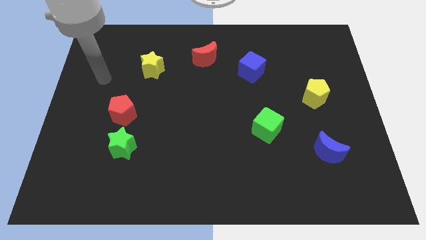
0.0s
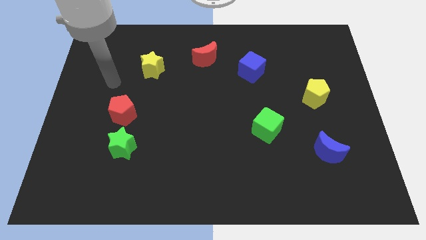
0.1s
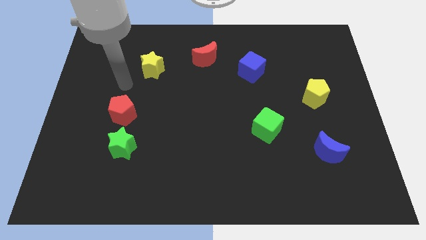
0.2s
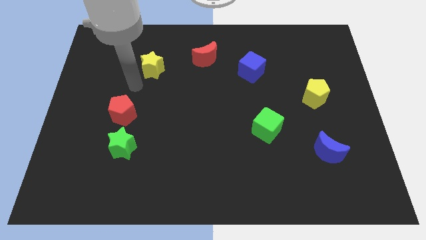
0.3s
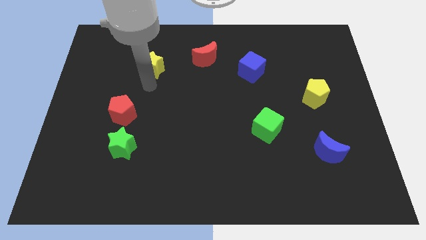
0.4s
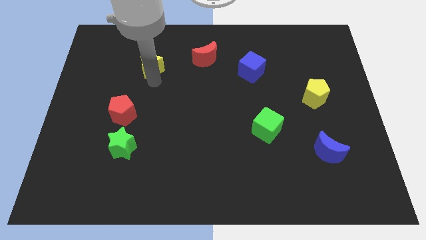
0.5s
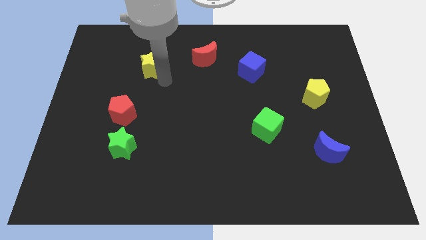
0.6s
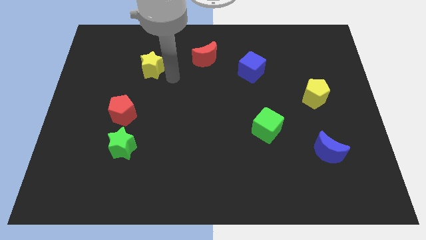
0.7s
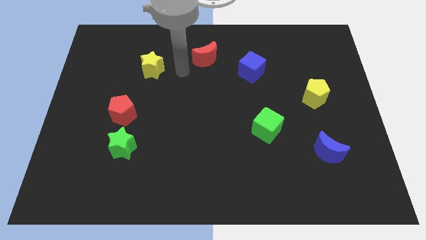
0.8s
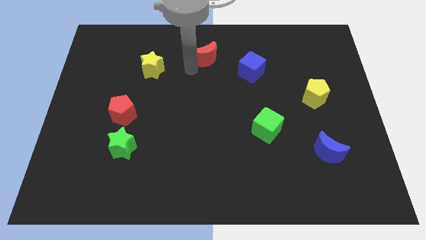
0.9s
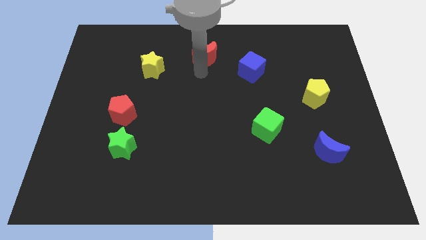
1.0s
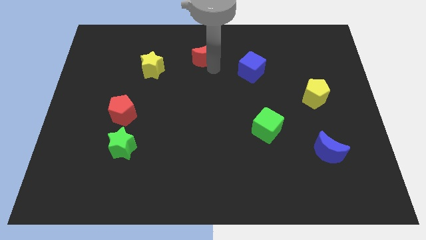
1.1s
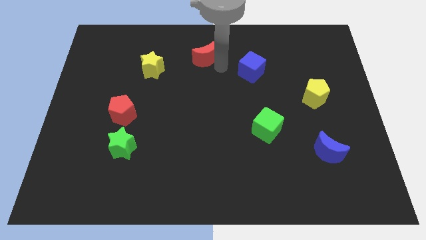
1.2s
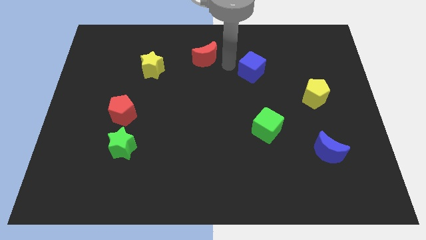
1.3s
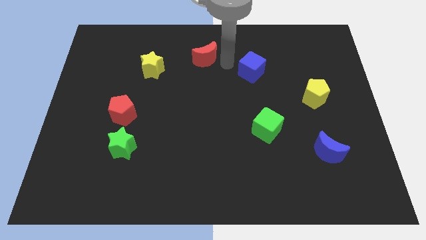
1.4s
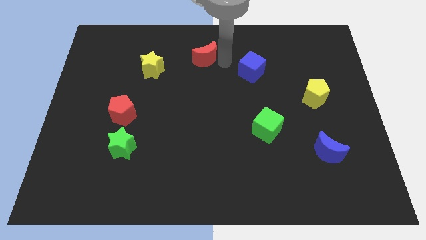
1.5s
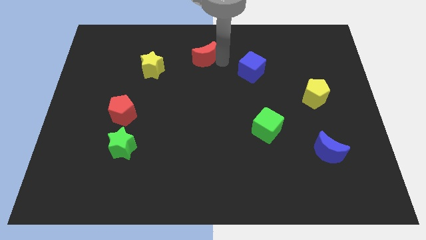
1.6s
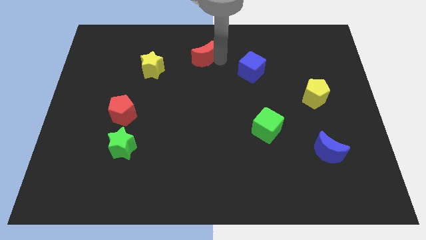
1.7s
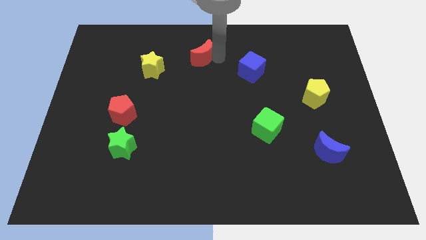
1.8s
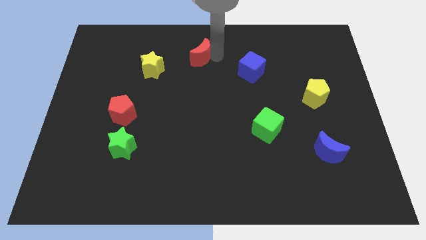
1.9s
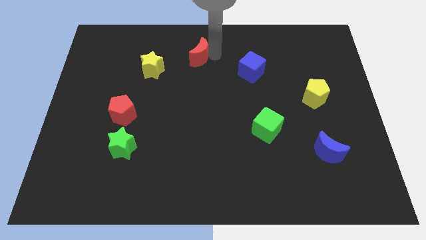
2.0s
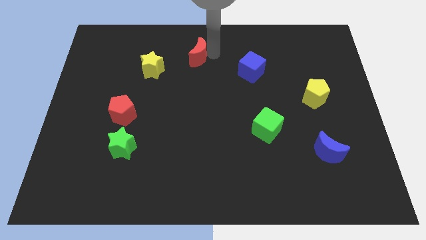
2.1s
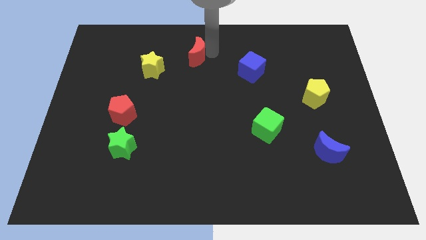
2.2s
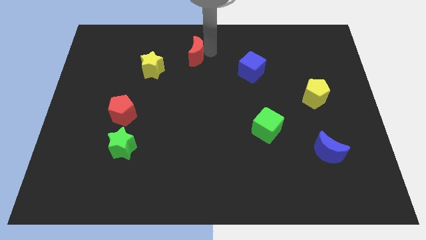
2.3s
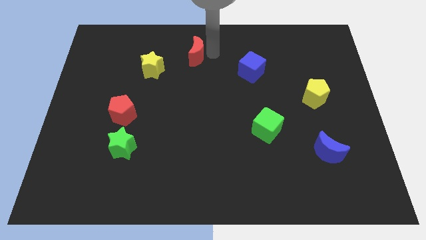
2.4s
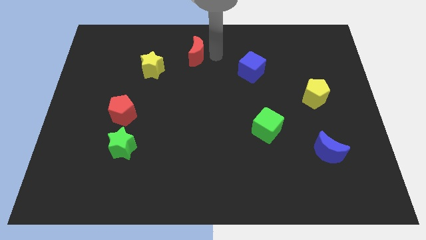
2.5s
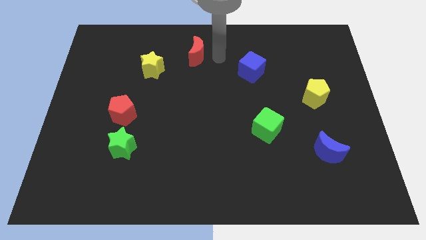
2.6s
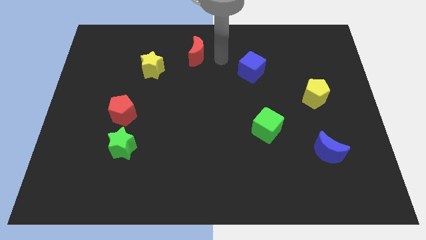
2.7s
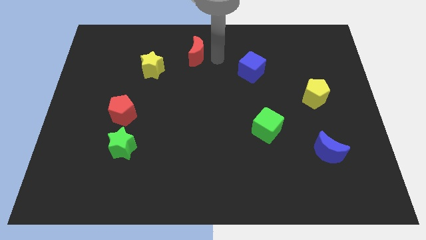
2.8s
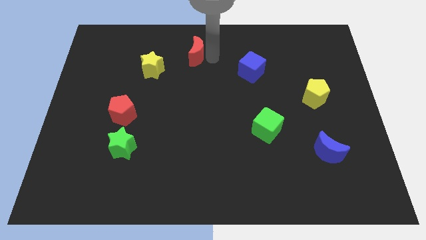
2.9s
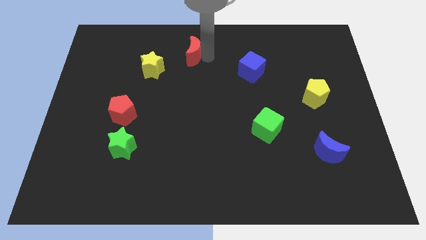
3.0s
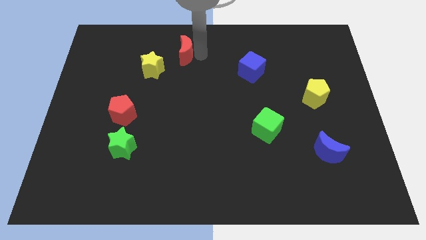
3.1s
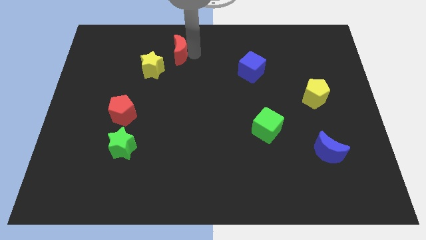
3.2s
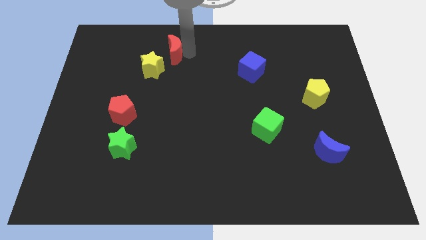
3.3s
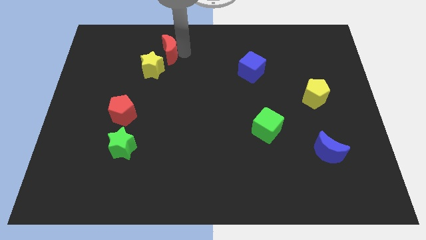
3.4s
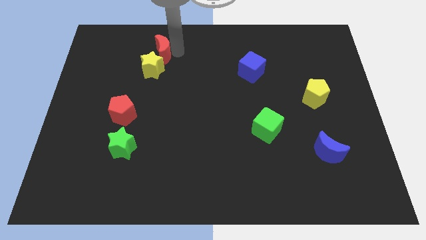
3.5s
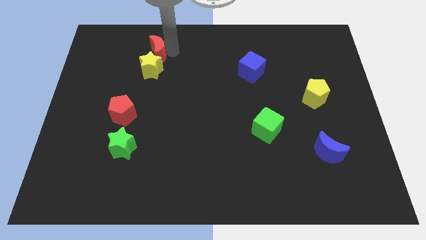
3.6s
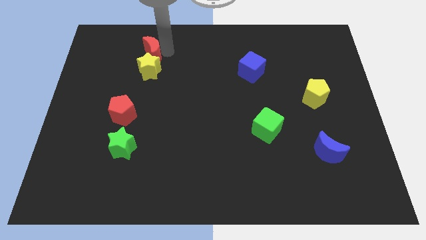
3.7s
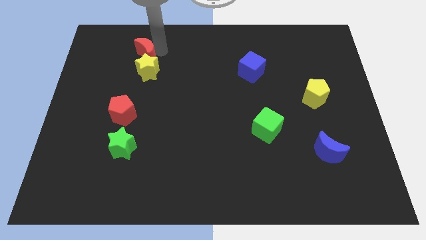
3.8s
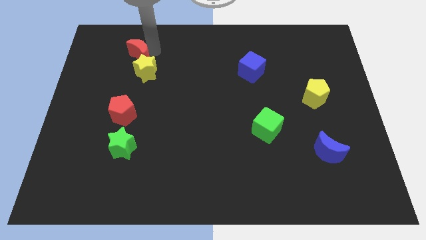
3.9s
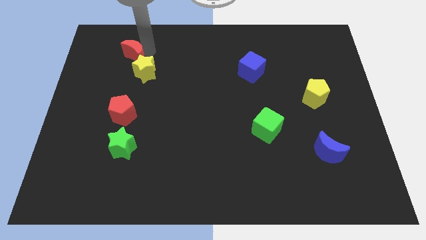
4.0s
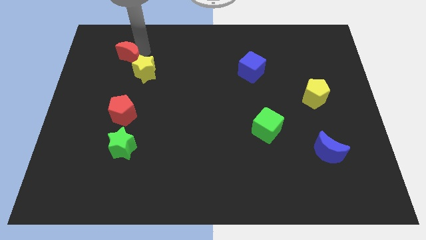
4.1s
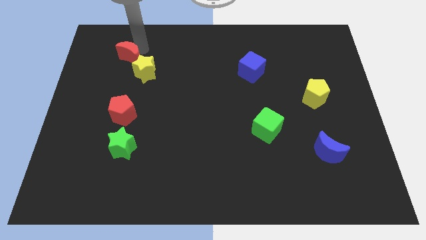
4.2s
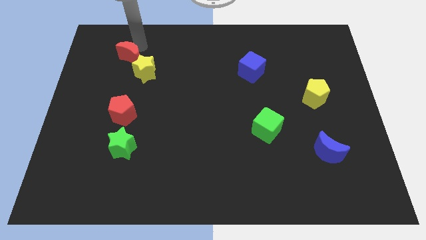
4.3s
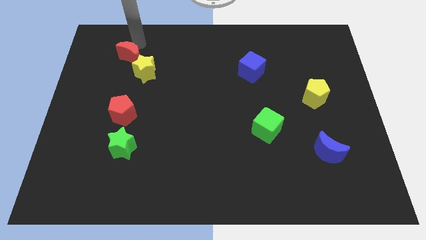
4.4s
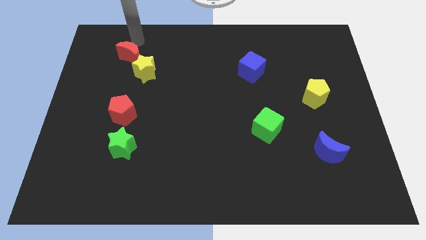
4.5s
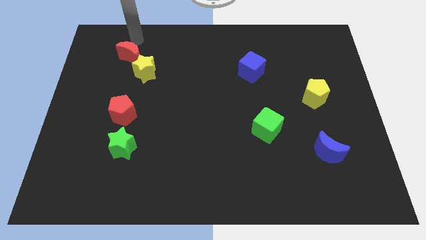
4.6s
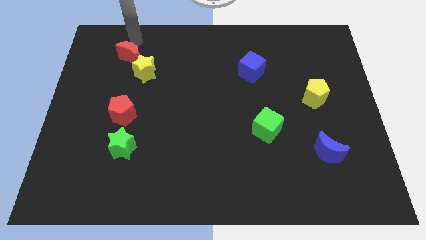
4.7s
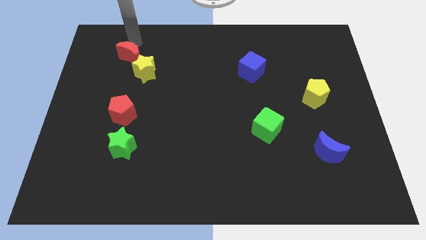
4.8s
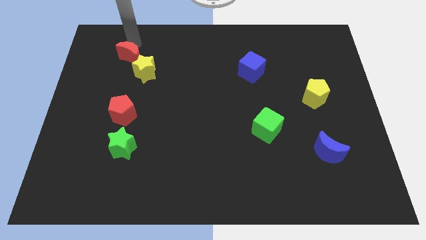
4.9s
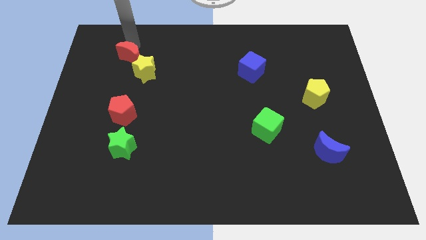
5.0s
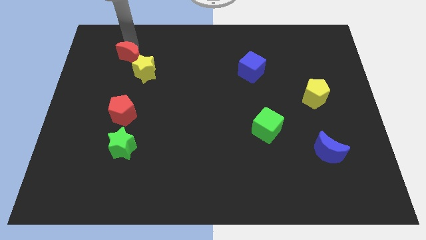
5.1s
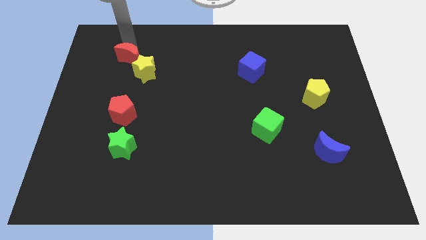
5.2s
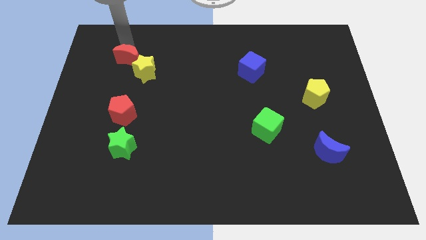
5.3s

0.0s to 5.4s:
slide the red moon to the left side of the yellow star

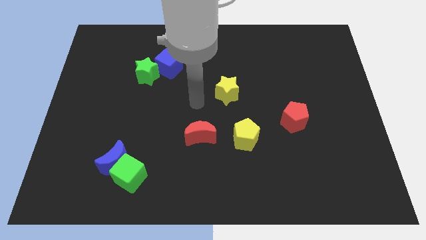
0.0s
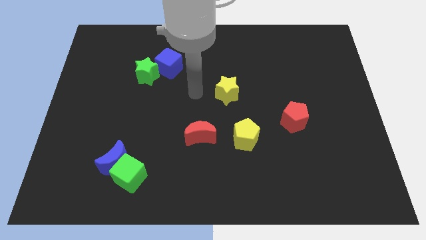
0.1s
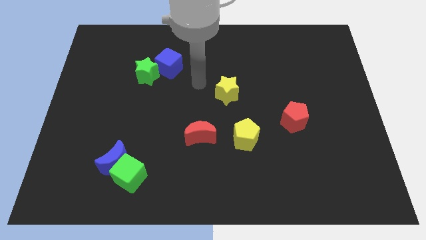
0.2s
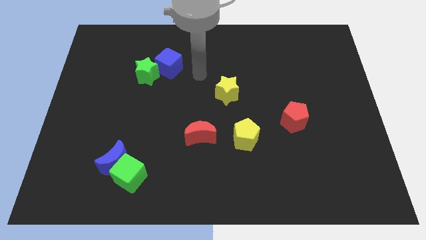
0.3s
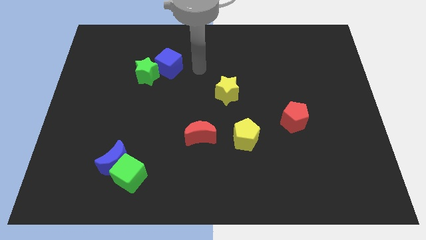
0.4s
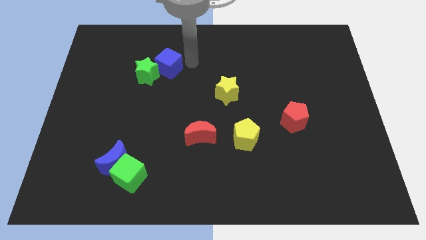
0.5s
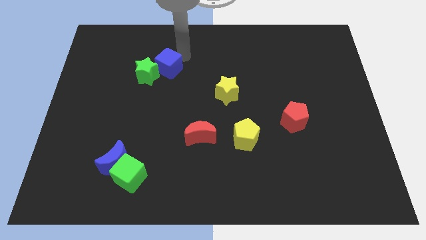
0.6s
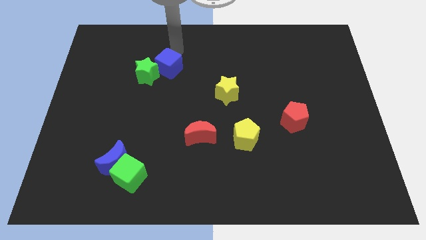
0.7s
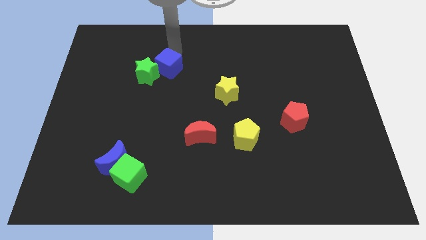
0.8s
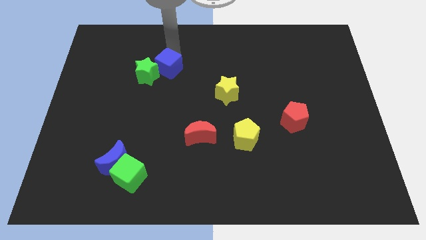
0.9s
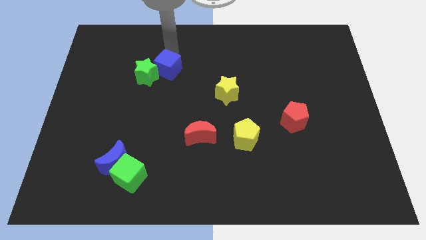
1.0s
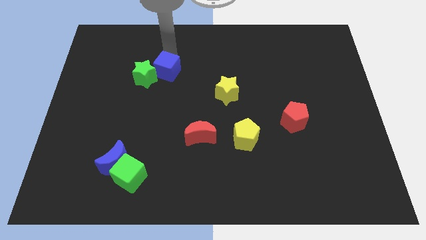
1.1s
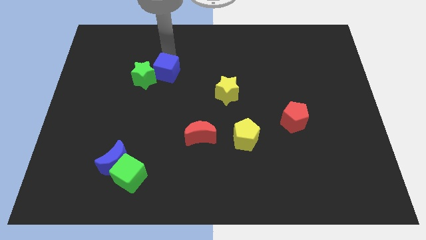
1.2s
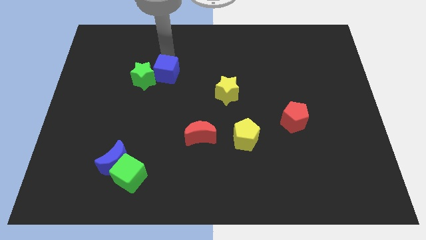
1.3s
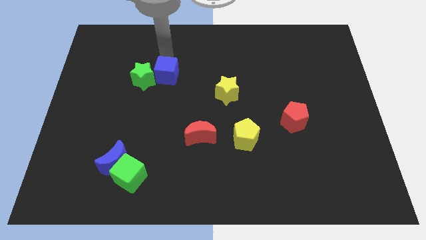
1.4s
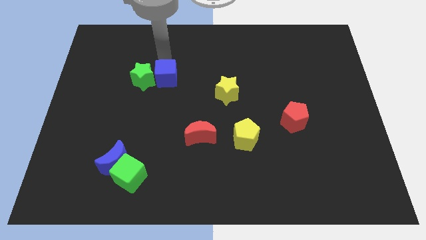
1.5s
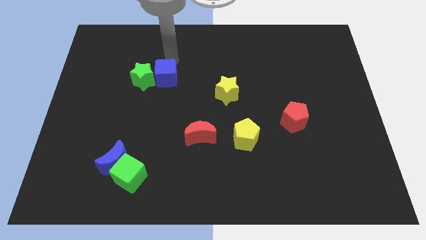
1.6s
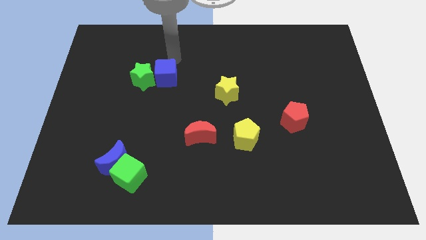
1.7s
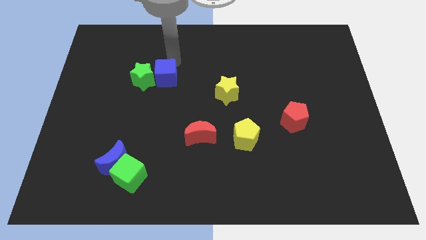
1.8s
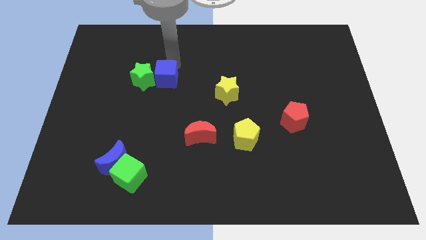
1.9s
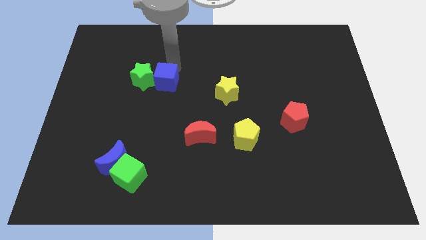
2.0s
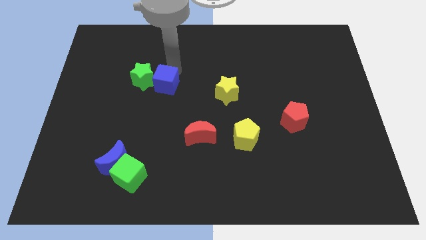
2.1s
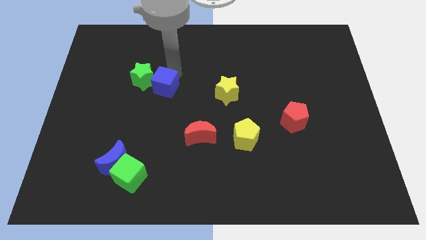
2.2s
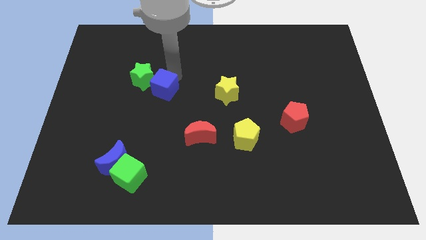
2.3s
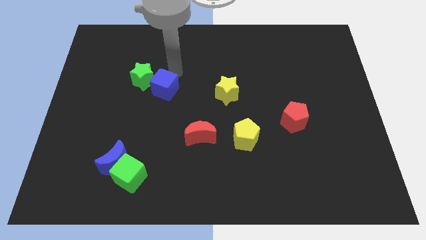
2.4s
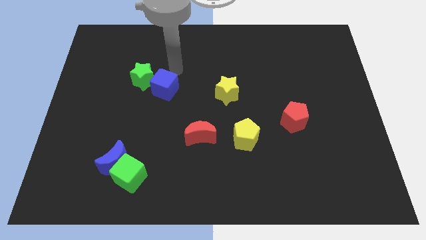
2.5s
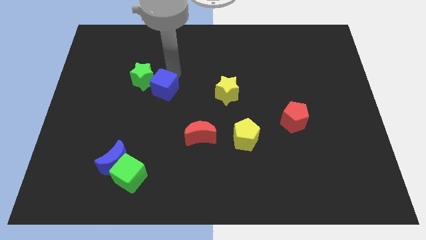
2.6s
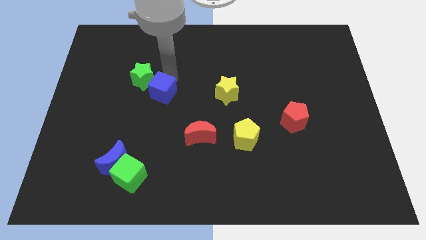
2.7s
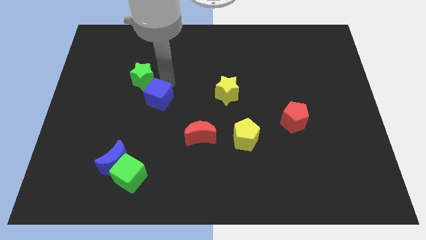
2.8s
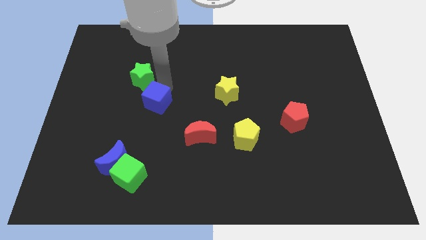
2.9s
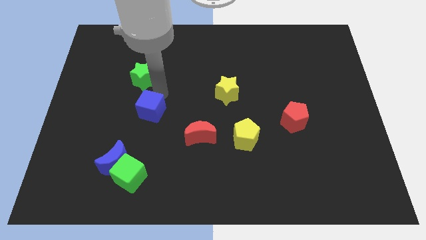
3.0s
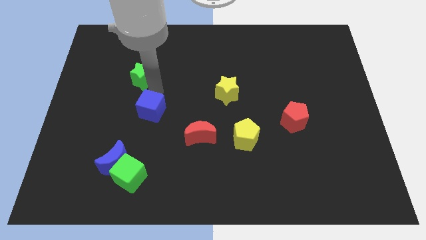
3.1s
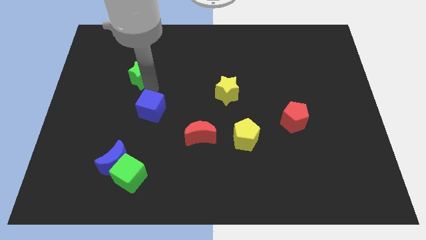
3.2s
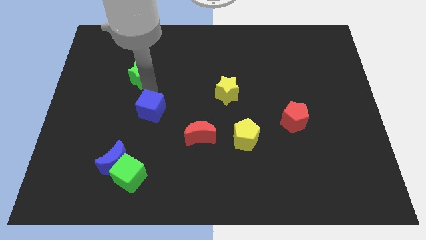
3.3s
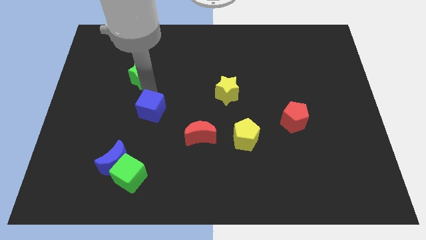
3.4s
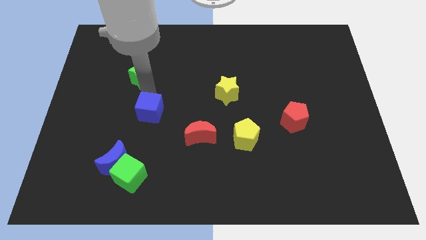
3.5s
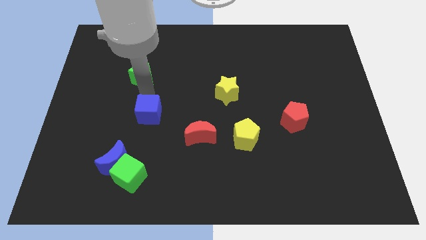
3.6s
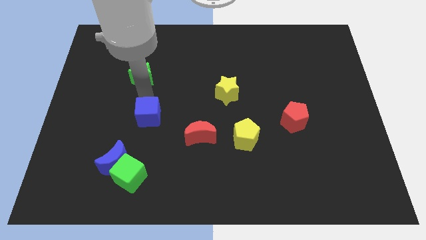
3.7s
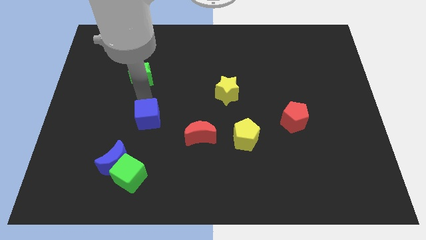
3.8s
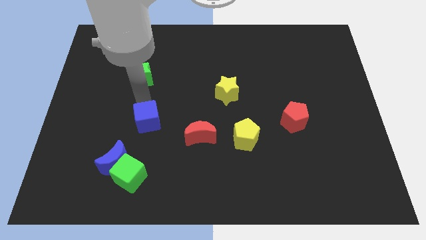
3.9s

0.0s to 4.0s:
put the blue cube just left of the red moon
